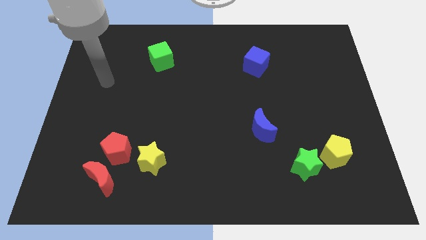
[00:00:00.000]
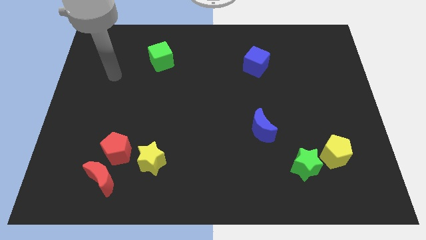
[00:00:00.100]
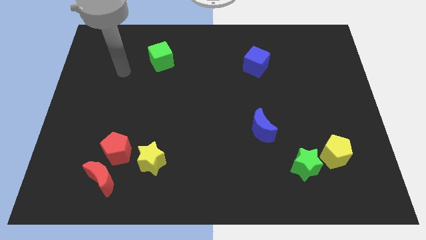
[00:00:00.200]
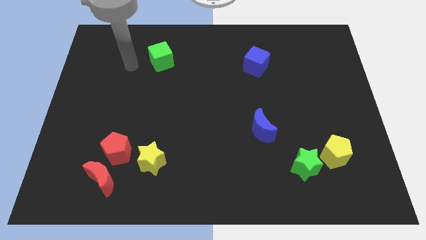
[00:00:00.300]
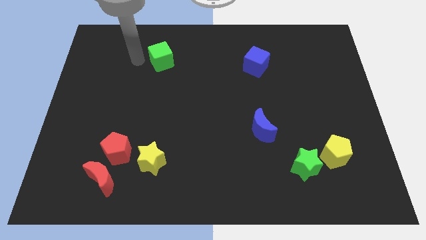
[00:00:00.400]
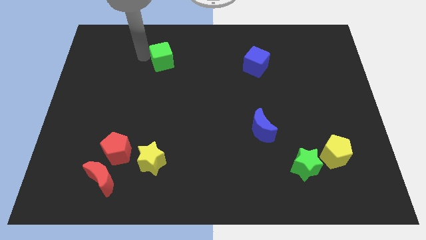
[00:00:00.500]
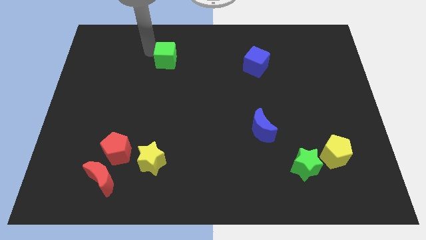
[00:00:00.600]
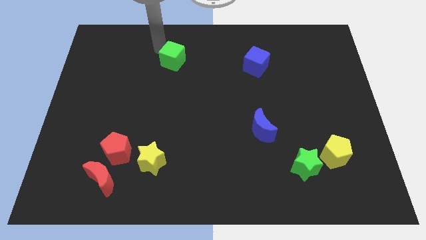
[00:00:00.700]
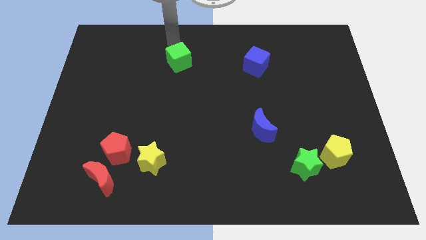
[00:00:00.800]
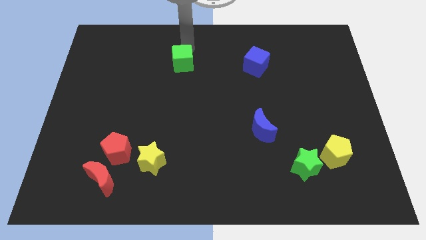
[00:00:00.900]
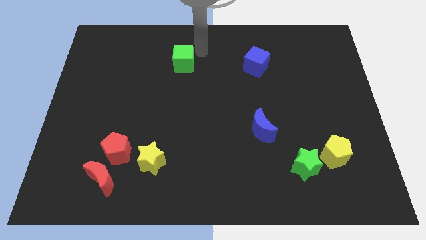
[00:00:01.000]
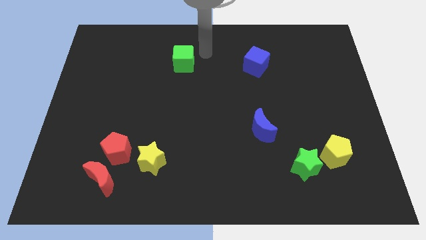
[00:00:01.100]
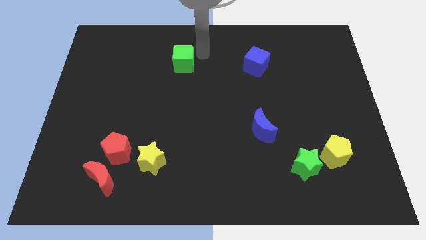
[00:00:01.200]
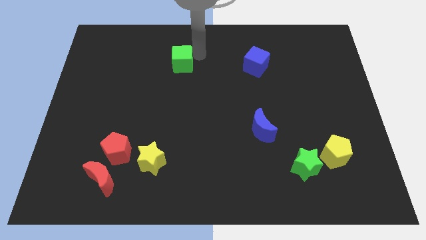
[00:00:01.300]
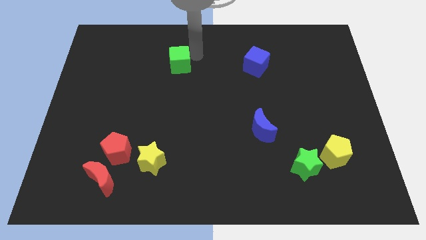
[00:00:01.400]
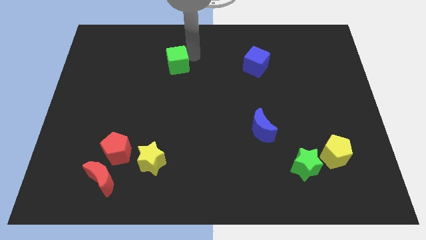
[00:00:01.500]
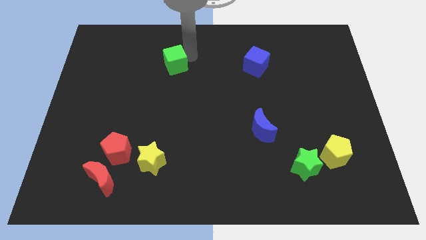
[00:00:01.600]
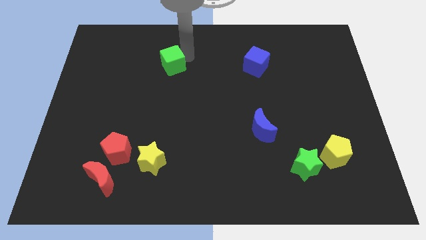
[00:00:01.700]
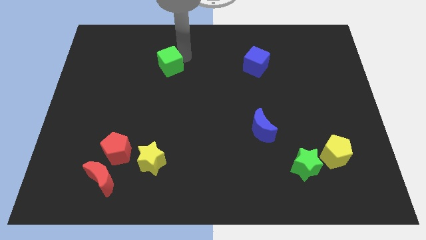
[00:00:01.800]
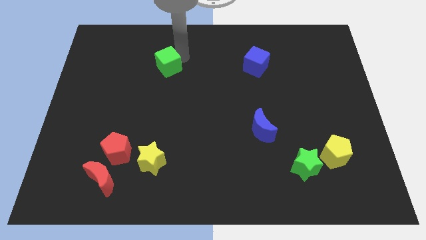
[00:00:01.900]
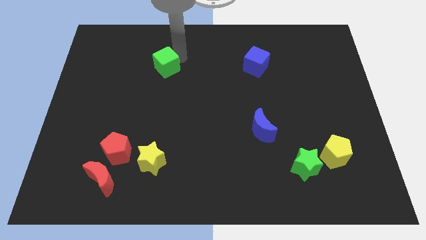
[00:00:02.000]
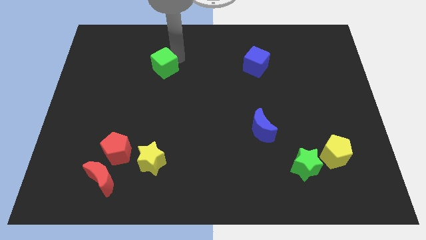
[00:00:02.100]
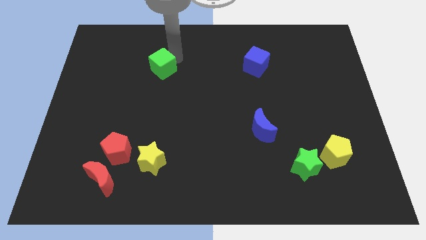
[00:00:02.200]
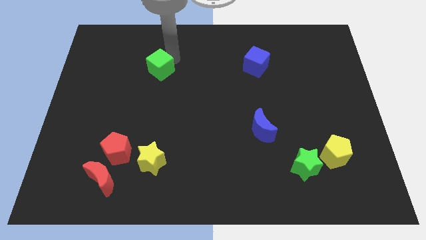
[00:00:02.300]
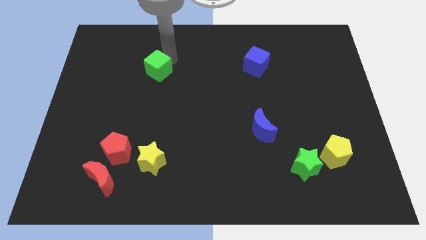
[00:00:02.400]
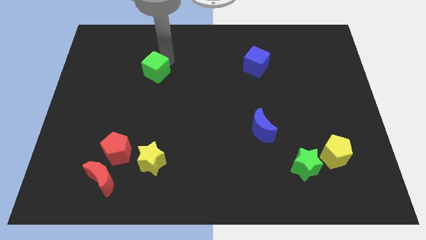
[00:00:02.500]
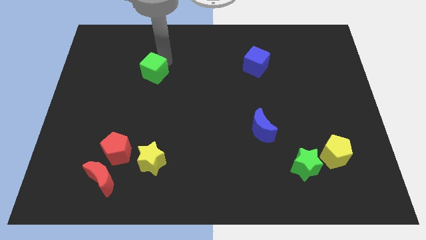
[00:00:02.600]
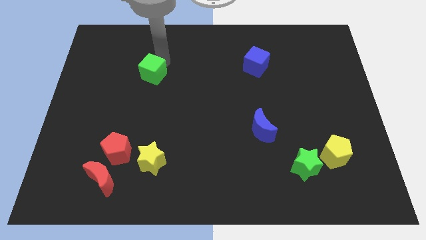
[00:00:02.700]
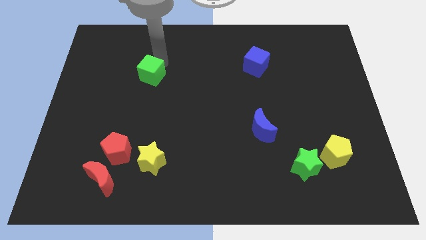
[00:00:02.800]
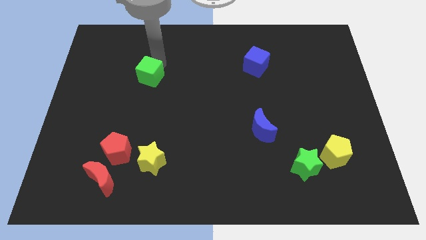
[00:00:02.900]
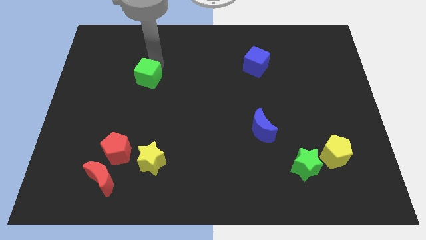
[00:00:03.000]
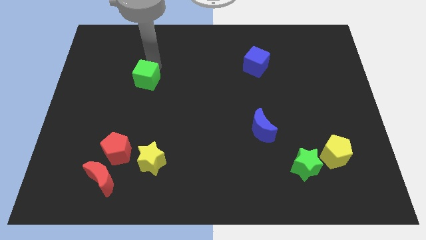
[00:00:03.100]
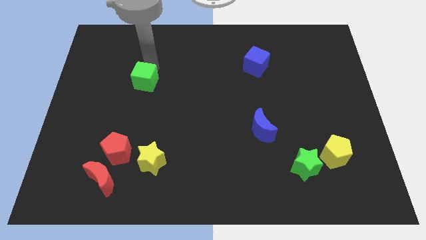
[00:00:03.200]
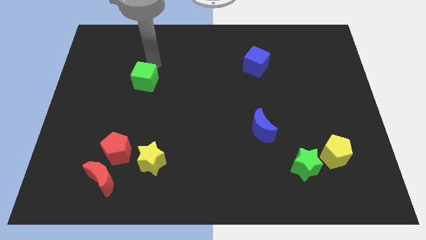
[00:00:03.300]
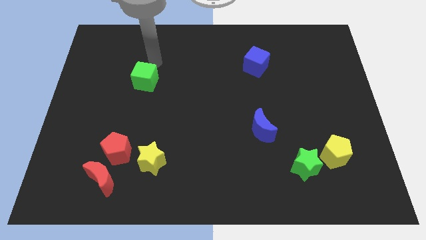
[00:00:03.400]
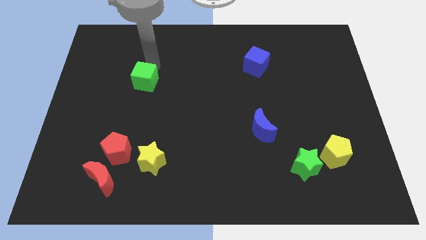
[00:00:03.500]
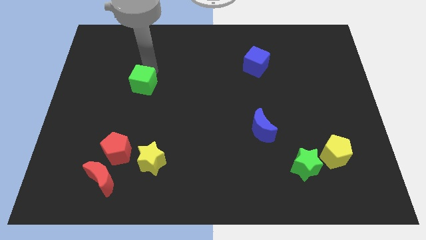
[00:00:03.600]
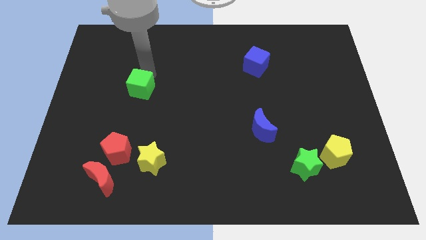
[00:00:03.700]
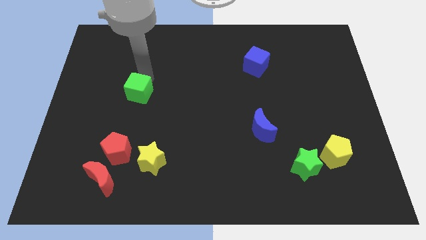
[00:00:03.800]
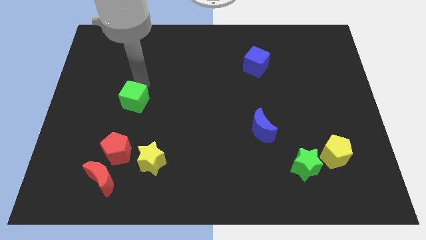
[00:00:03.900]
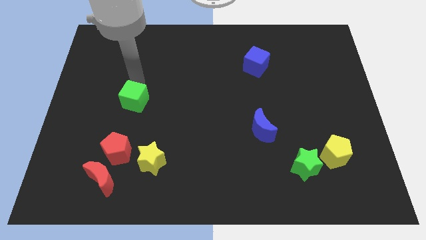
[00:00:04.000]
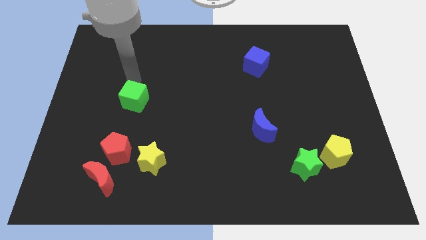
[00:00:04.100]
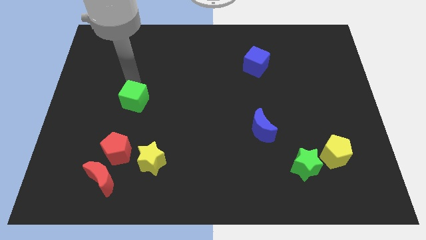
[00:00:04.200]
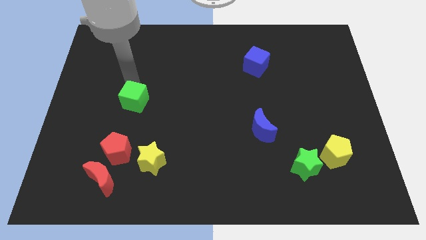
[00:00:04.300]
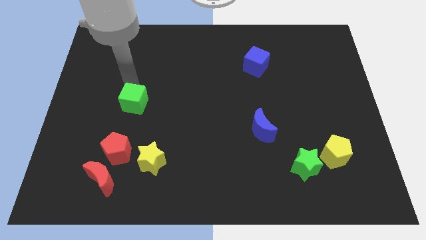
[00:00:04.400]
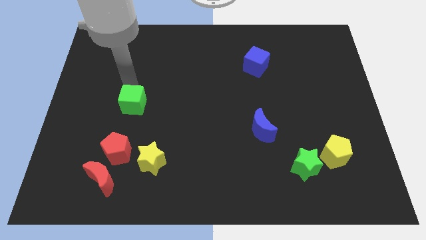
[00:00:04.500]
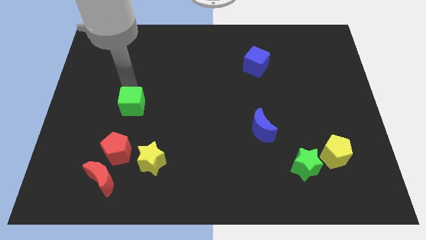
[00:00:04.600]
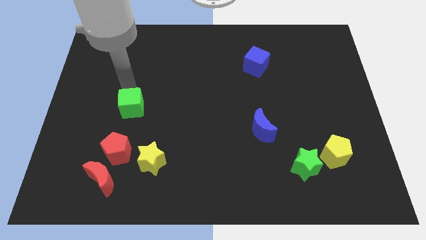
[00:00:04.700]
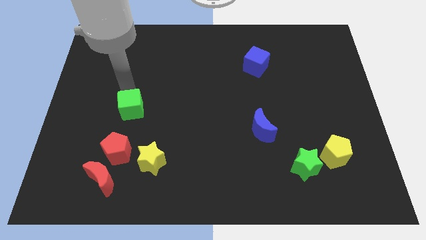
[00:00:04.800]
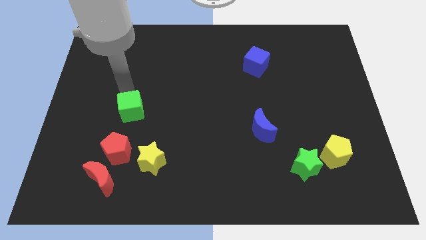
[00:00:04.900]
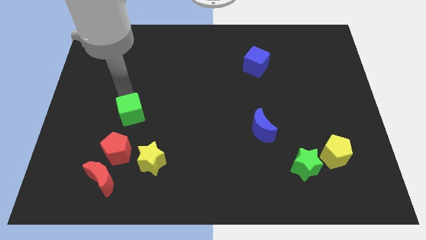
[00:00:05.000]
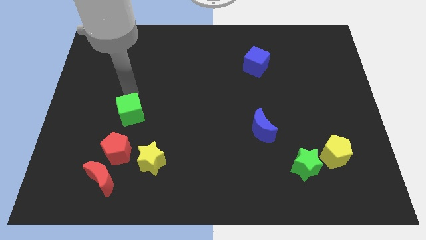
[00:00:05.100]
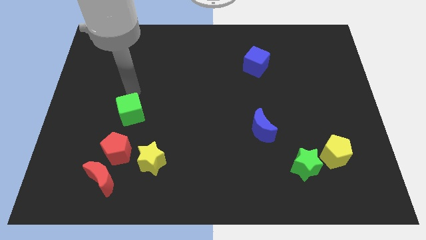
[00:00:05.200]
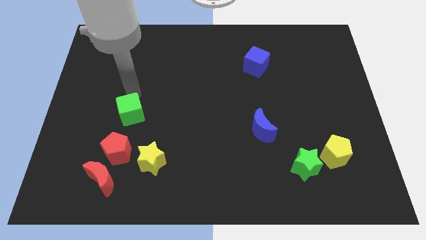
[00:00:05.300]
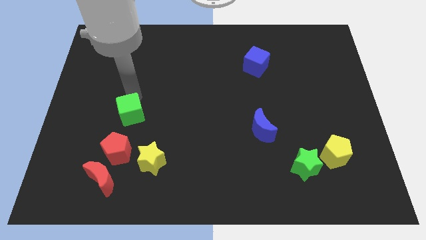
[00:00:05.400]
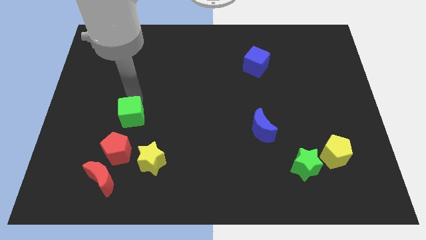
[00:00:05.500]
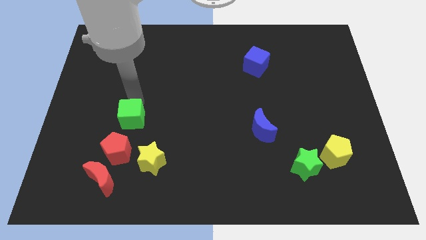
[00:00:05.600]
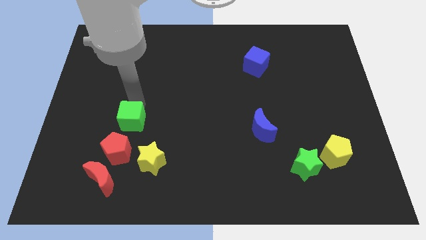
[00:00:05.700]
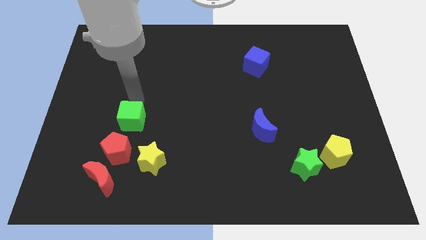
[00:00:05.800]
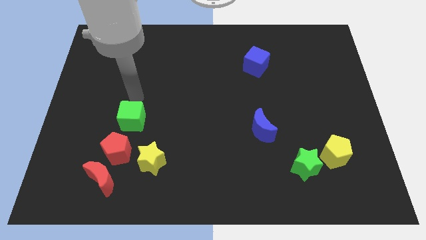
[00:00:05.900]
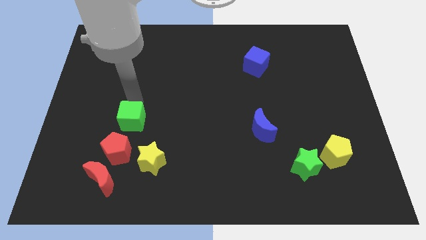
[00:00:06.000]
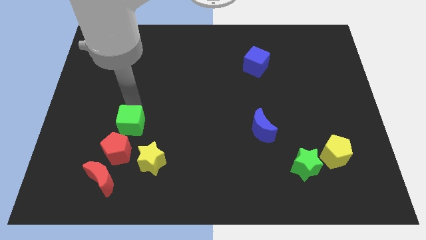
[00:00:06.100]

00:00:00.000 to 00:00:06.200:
push the green cube to the top left of the yellow star

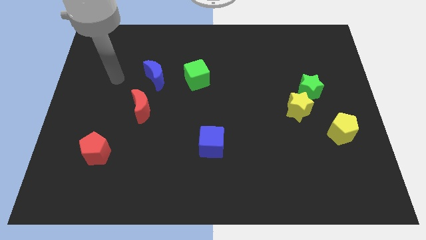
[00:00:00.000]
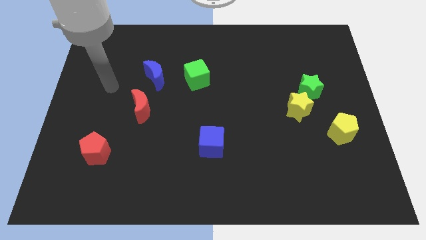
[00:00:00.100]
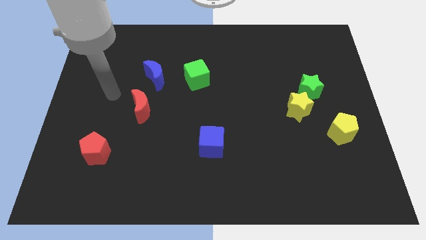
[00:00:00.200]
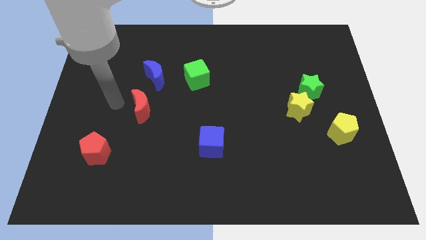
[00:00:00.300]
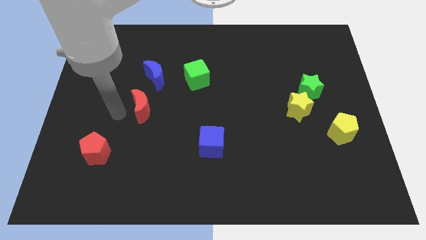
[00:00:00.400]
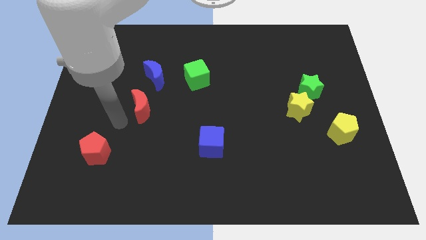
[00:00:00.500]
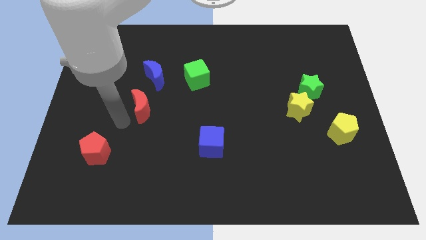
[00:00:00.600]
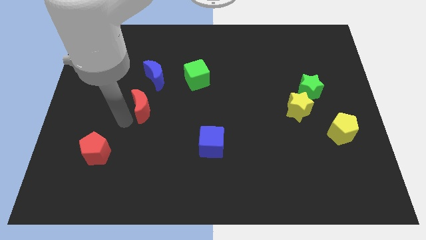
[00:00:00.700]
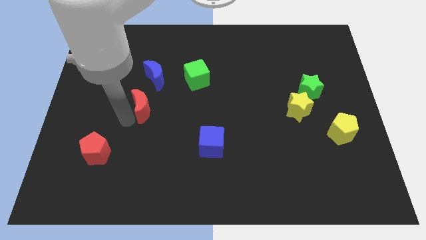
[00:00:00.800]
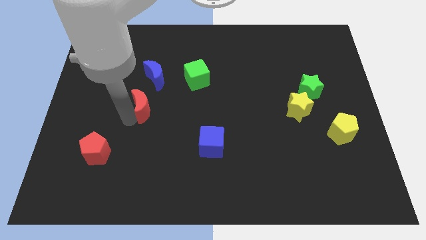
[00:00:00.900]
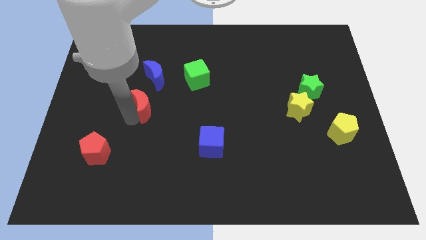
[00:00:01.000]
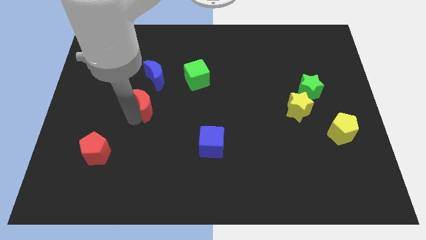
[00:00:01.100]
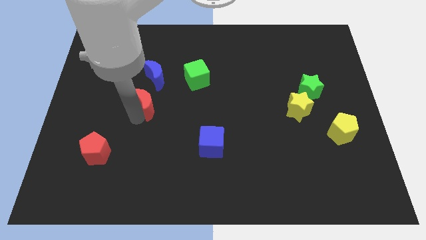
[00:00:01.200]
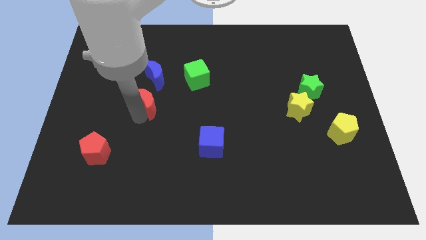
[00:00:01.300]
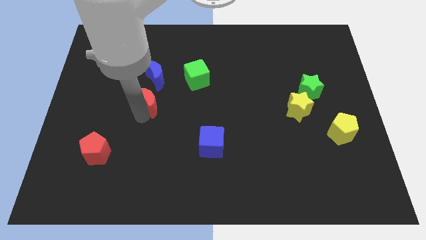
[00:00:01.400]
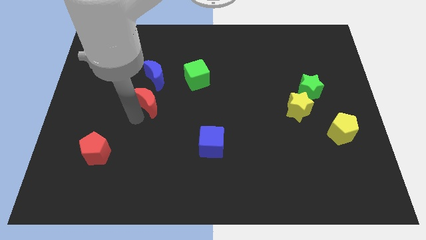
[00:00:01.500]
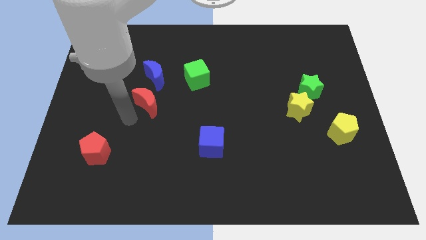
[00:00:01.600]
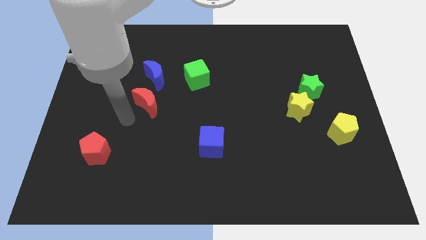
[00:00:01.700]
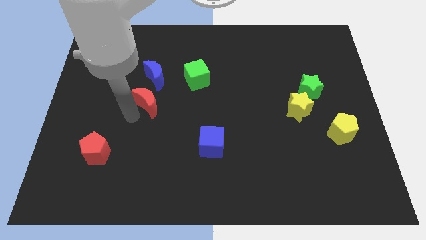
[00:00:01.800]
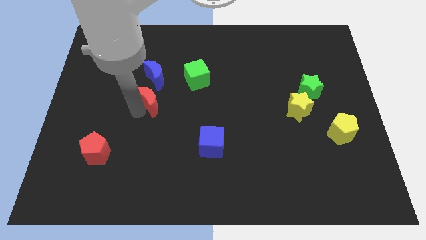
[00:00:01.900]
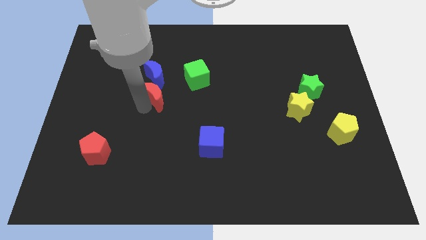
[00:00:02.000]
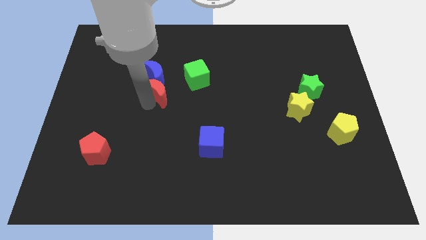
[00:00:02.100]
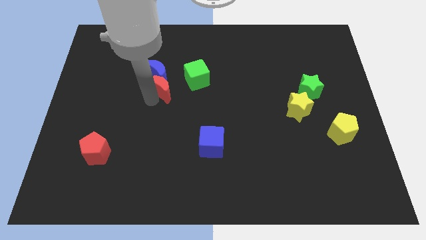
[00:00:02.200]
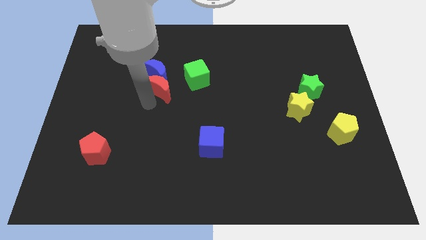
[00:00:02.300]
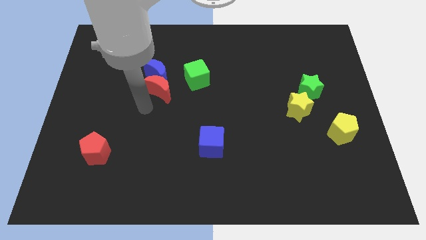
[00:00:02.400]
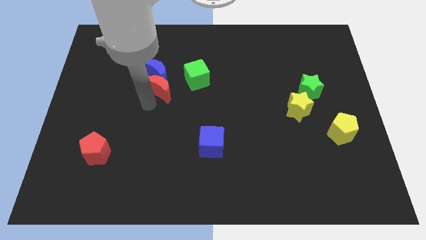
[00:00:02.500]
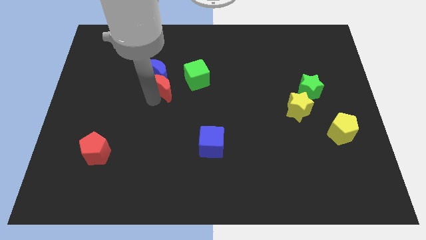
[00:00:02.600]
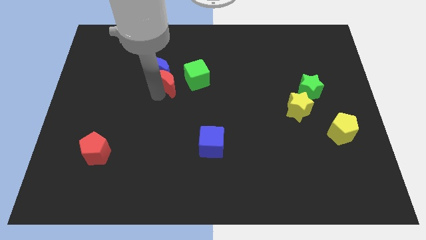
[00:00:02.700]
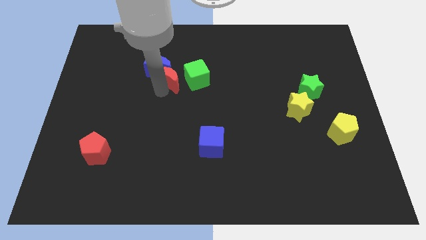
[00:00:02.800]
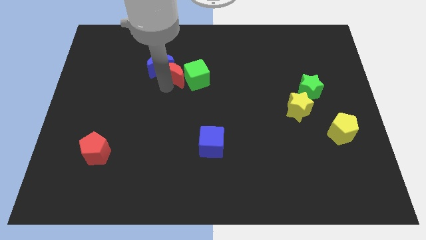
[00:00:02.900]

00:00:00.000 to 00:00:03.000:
slide the red moon to the top left of the green cube
